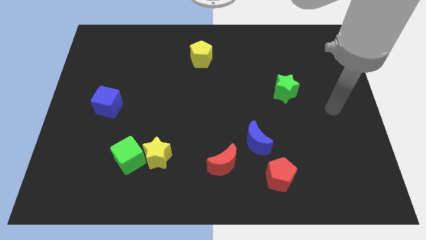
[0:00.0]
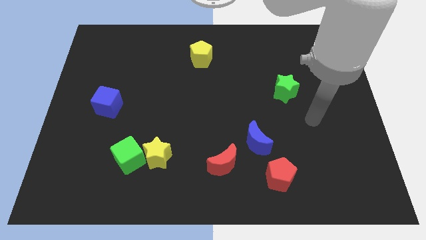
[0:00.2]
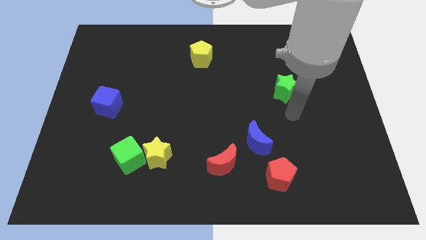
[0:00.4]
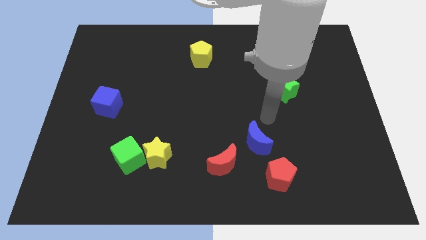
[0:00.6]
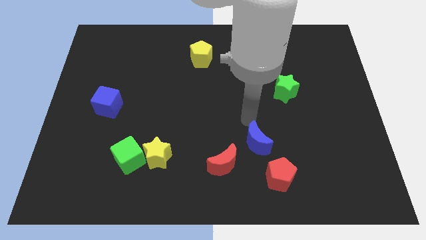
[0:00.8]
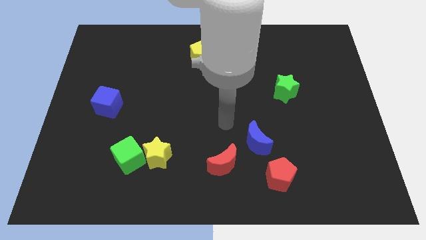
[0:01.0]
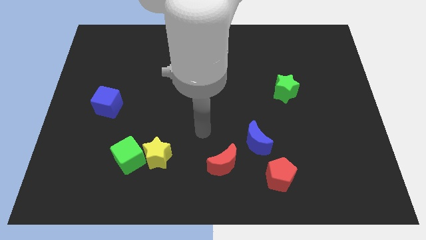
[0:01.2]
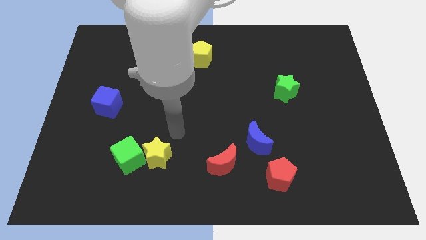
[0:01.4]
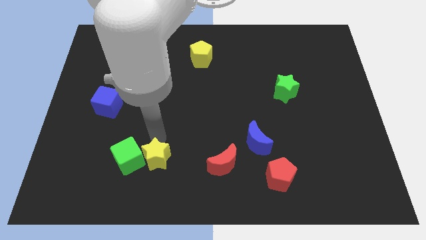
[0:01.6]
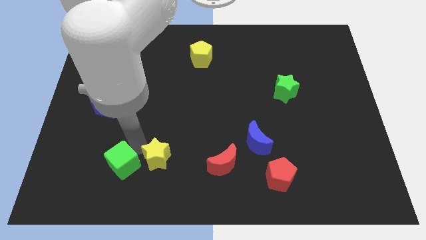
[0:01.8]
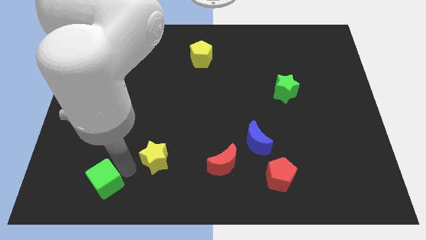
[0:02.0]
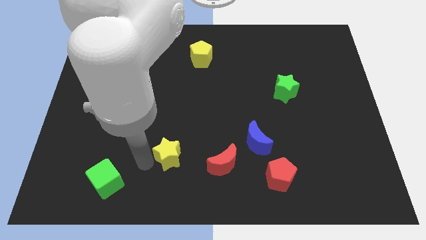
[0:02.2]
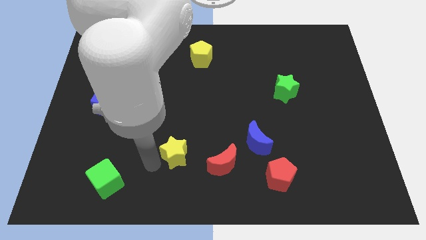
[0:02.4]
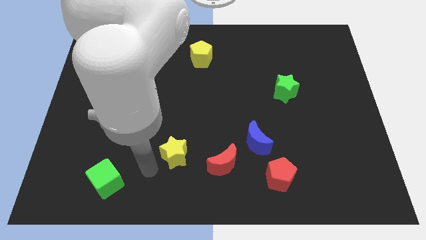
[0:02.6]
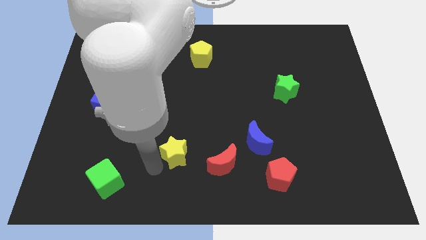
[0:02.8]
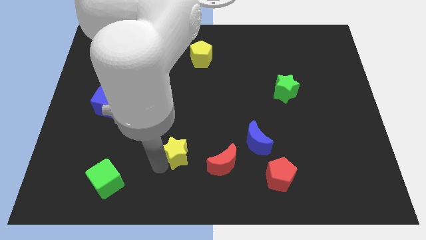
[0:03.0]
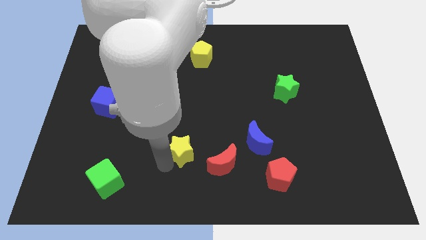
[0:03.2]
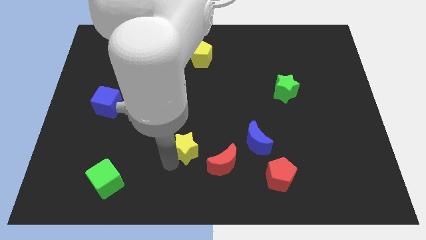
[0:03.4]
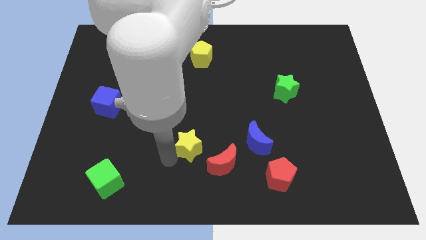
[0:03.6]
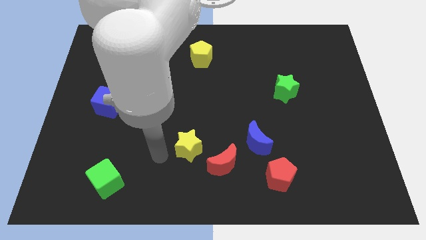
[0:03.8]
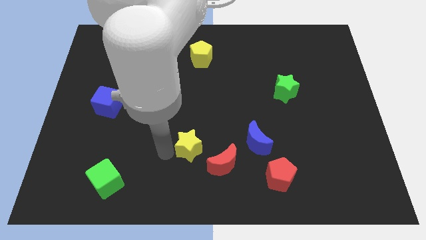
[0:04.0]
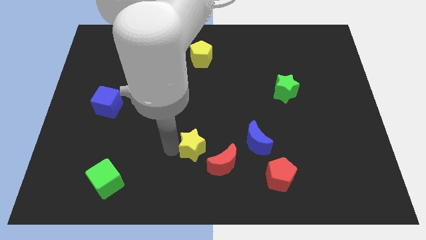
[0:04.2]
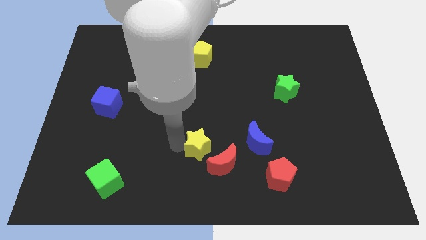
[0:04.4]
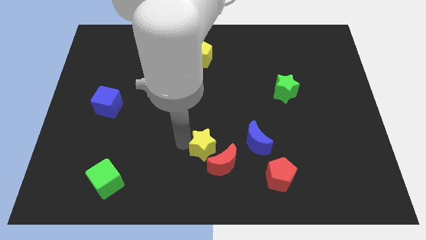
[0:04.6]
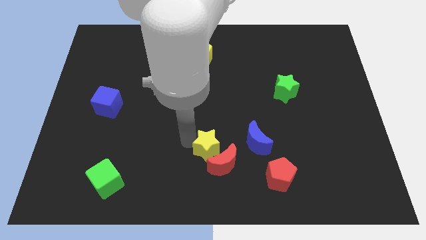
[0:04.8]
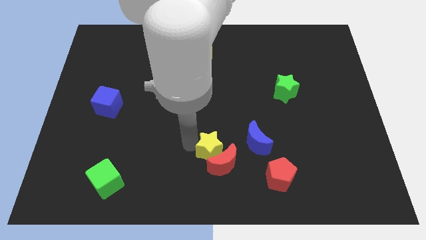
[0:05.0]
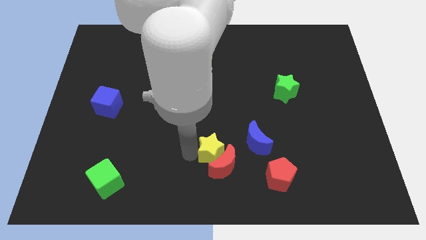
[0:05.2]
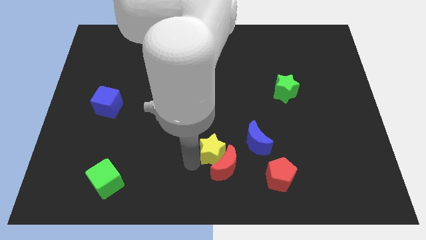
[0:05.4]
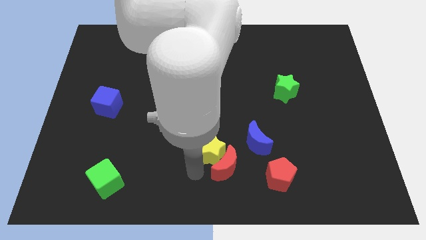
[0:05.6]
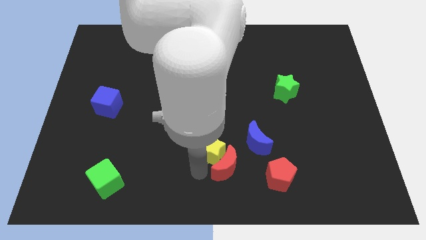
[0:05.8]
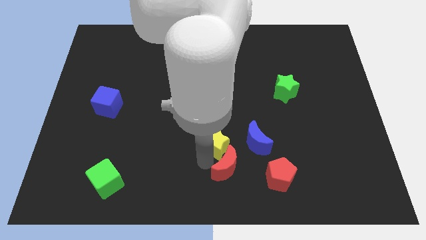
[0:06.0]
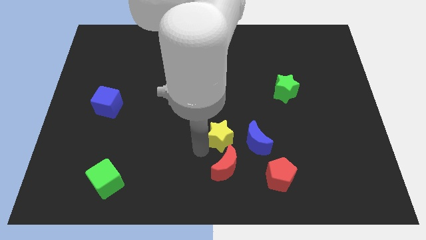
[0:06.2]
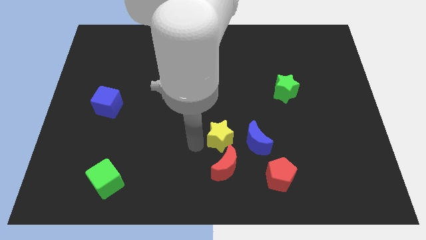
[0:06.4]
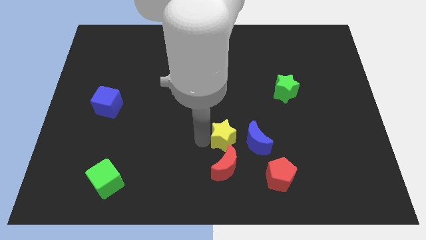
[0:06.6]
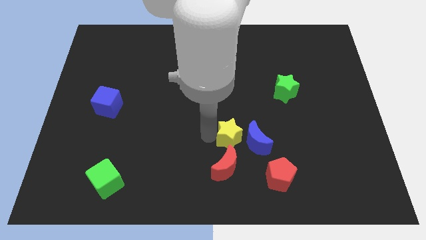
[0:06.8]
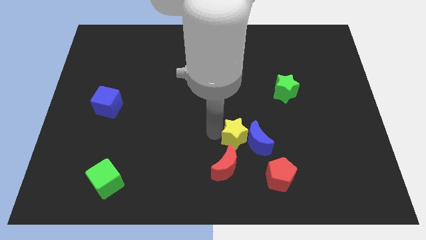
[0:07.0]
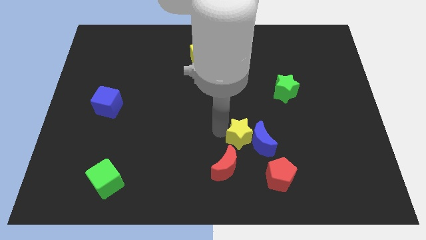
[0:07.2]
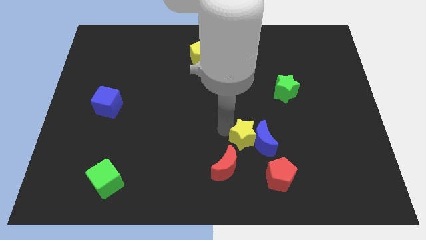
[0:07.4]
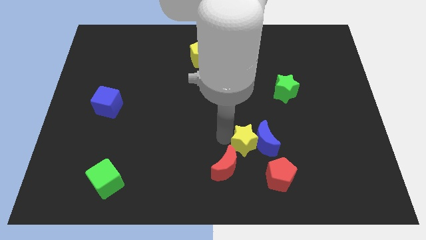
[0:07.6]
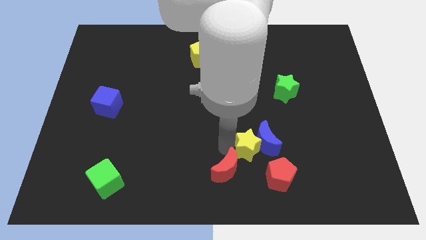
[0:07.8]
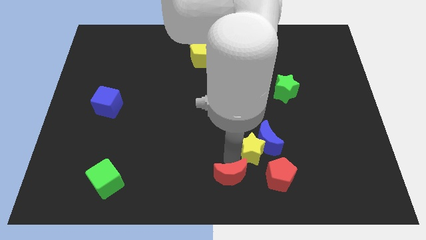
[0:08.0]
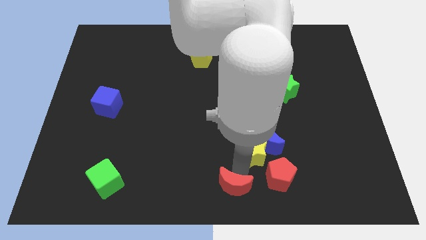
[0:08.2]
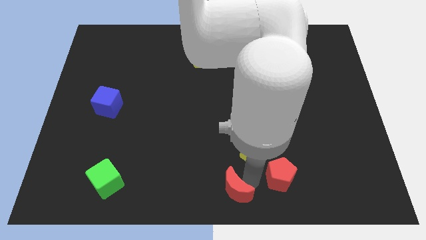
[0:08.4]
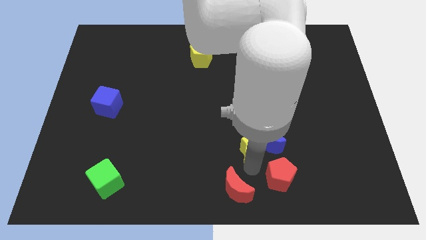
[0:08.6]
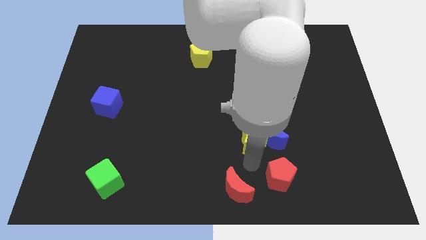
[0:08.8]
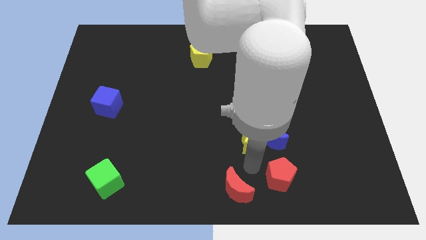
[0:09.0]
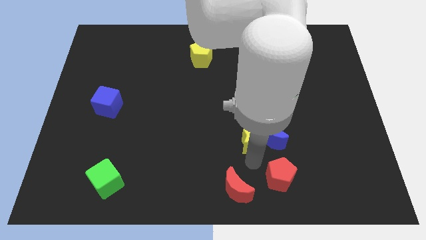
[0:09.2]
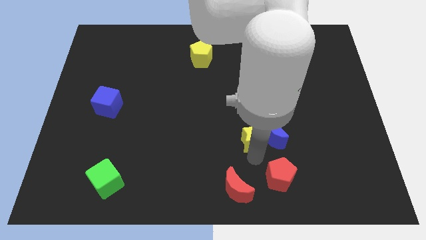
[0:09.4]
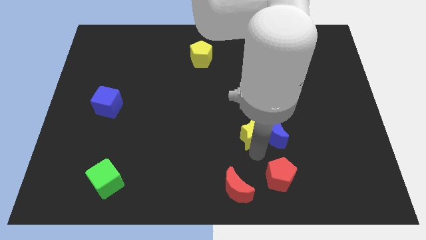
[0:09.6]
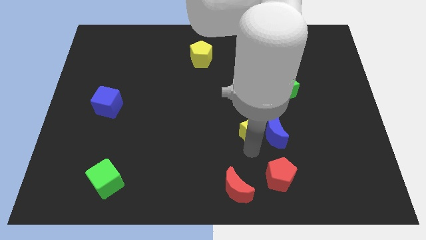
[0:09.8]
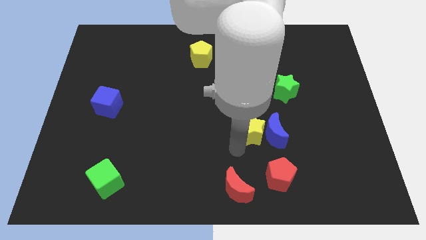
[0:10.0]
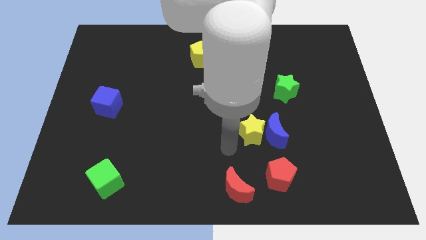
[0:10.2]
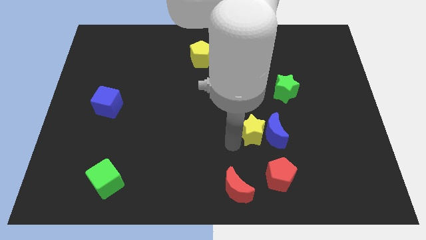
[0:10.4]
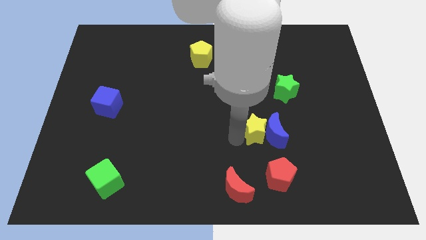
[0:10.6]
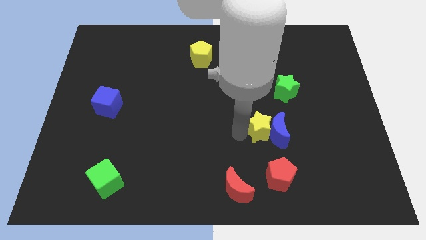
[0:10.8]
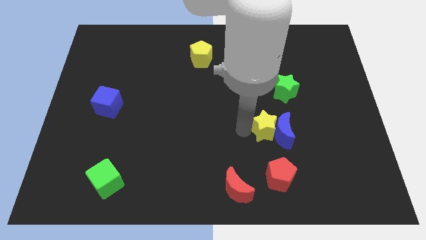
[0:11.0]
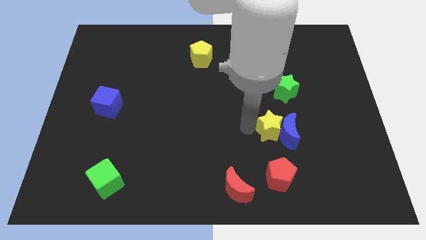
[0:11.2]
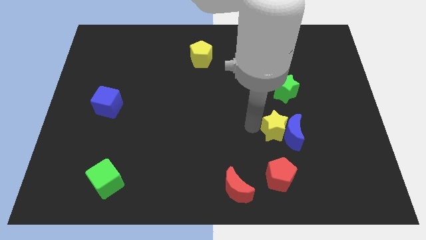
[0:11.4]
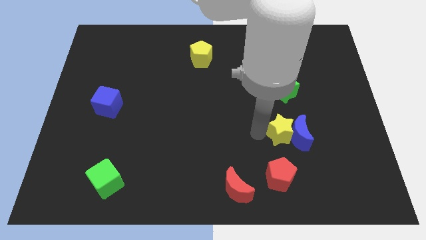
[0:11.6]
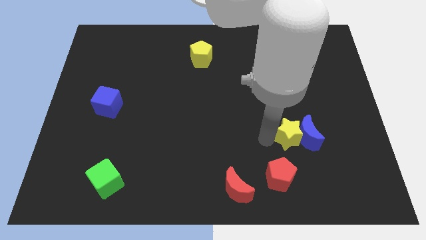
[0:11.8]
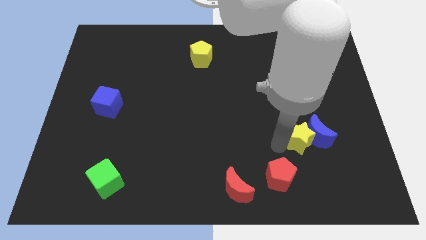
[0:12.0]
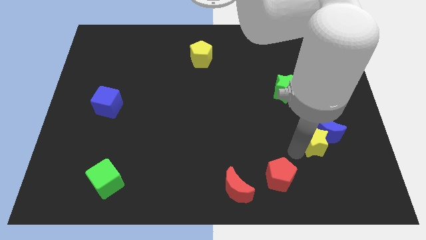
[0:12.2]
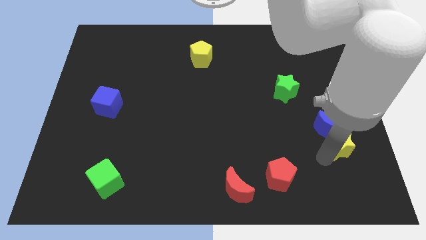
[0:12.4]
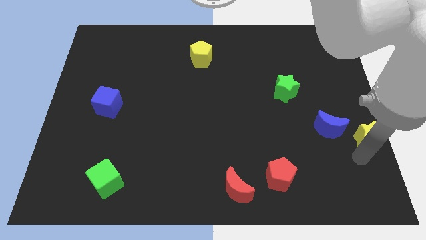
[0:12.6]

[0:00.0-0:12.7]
put the yellow star to the center right

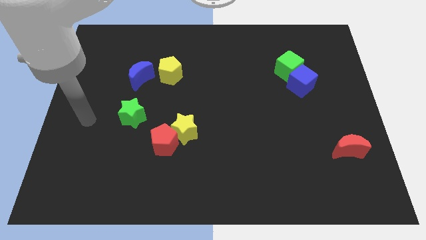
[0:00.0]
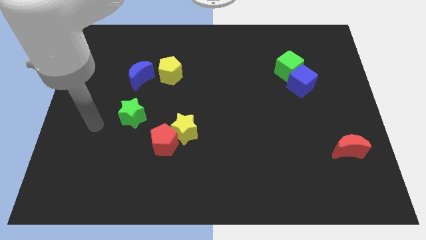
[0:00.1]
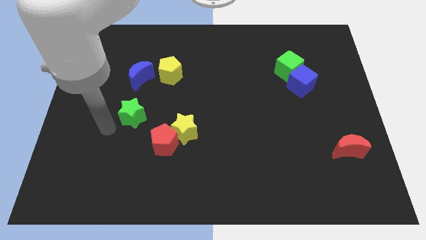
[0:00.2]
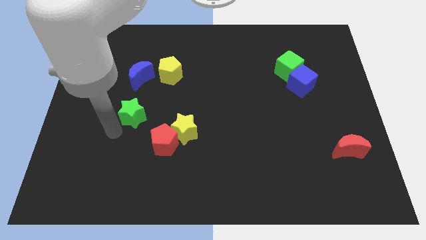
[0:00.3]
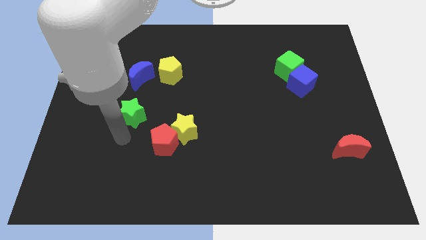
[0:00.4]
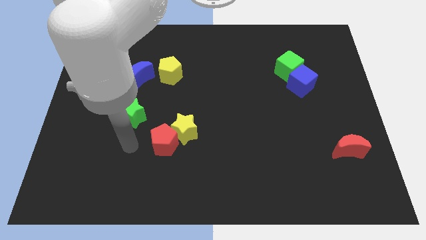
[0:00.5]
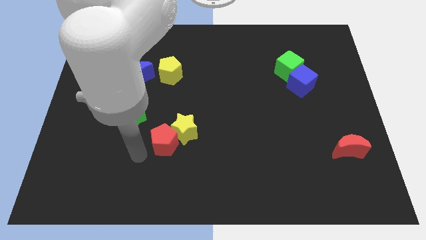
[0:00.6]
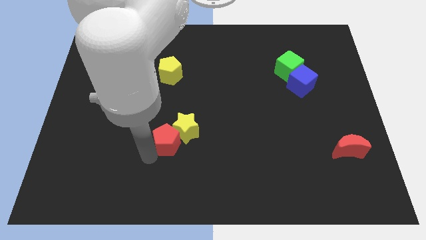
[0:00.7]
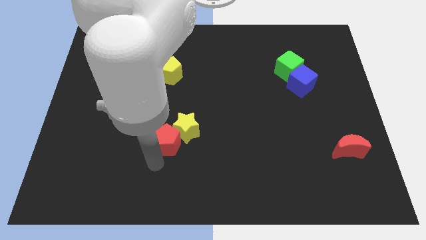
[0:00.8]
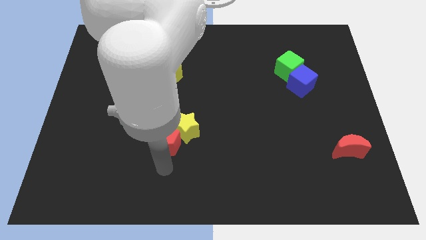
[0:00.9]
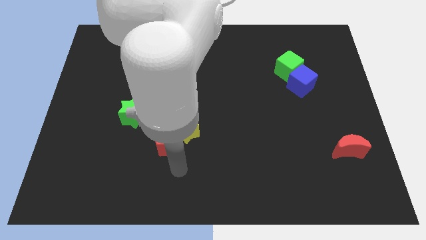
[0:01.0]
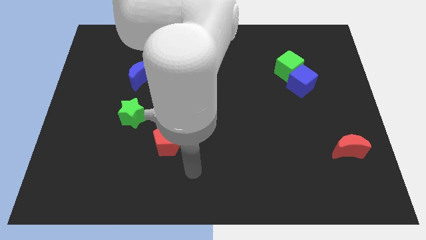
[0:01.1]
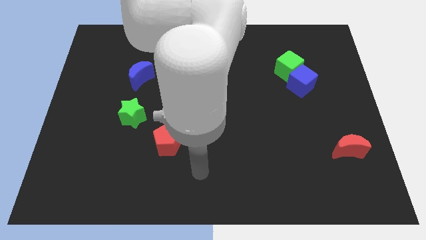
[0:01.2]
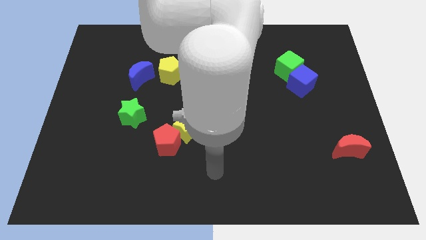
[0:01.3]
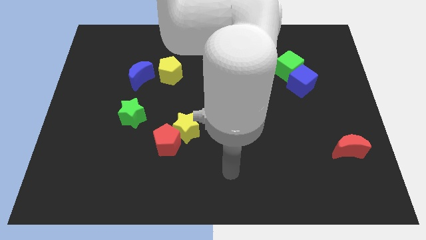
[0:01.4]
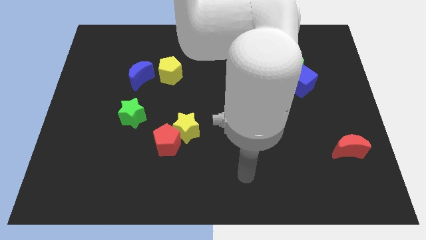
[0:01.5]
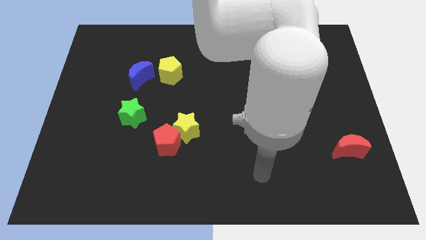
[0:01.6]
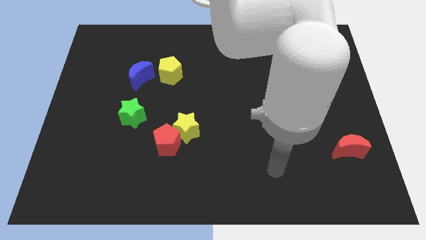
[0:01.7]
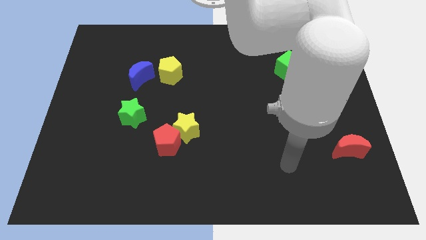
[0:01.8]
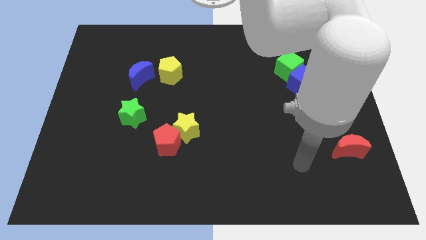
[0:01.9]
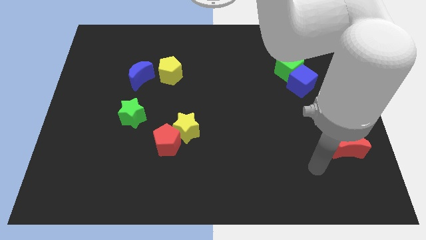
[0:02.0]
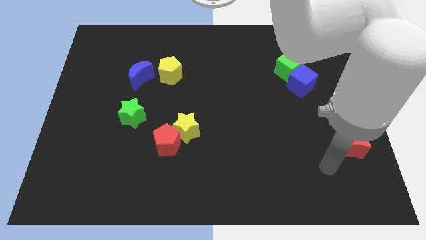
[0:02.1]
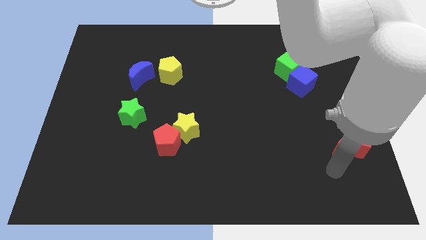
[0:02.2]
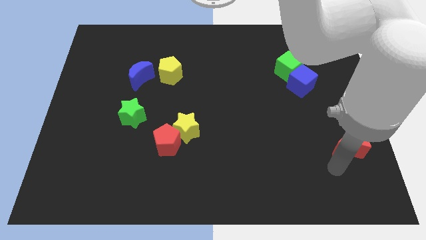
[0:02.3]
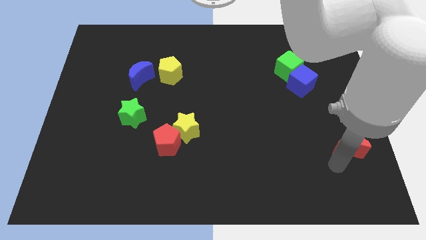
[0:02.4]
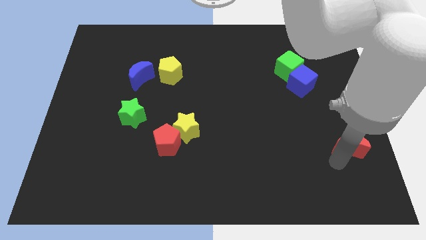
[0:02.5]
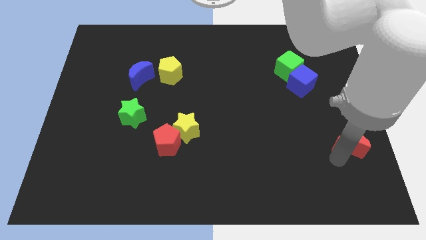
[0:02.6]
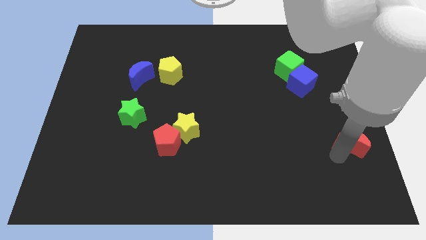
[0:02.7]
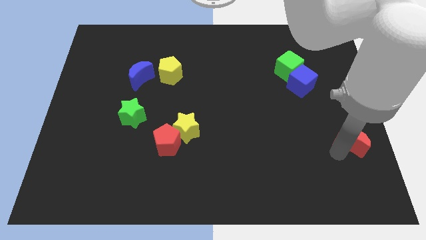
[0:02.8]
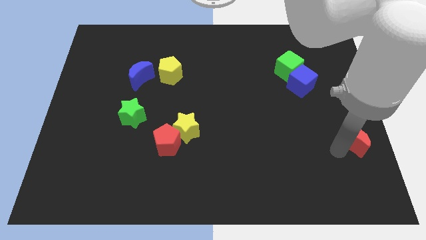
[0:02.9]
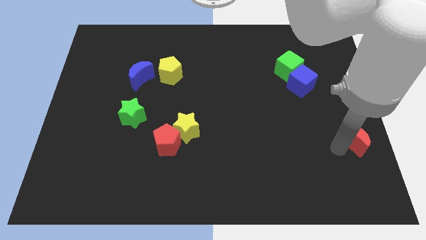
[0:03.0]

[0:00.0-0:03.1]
slide the red moon to the center right
